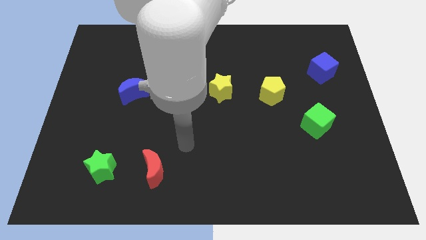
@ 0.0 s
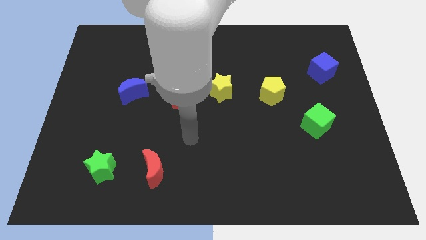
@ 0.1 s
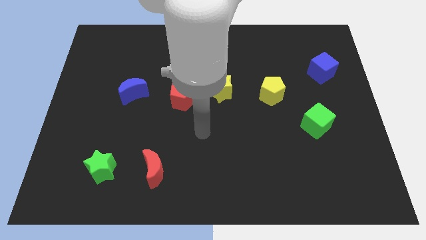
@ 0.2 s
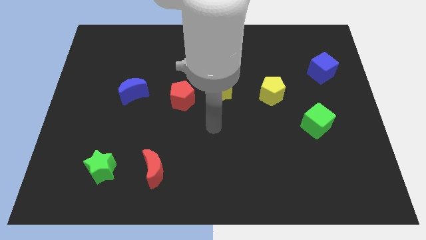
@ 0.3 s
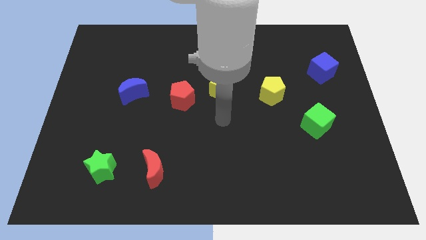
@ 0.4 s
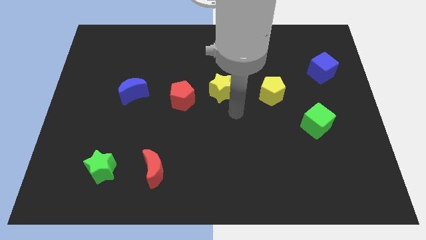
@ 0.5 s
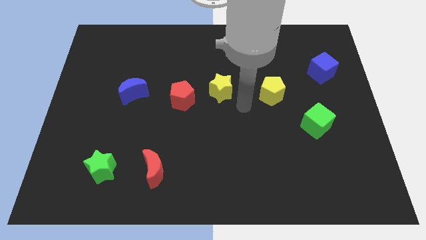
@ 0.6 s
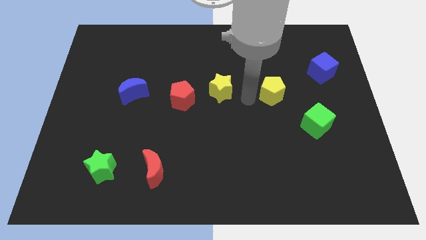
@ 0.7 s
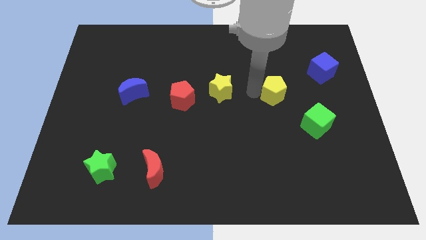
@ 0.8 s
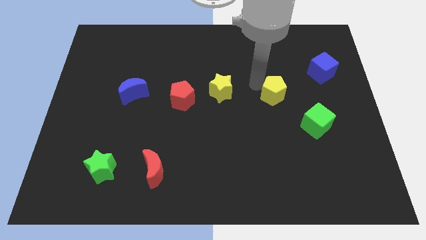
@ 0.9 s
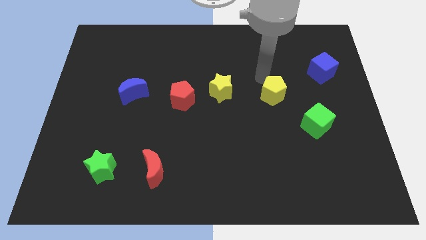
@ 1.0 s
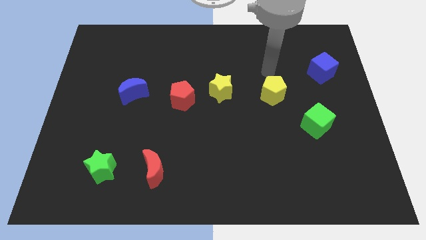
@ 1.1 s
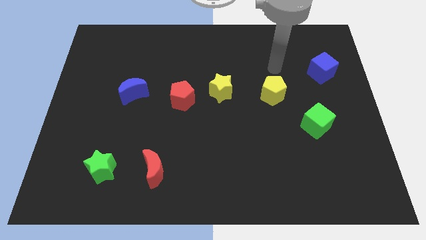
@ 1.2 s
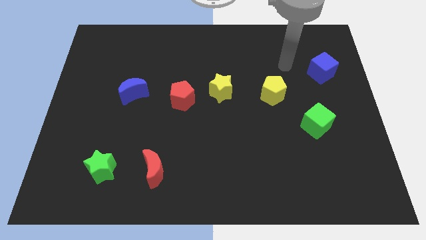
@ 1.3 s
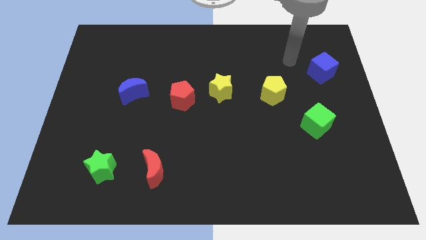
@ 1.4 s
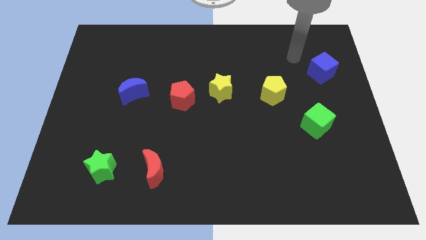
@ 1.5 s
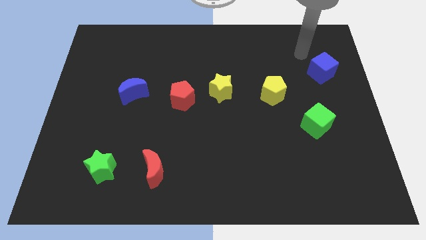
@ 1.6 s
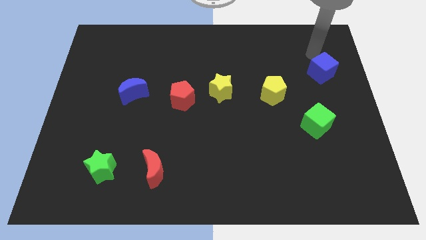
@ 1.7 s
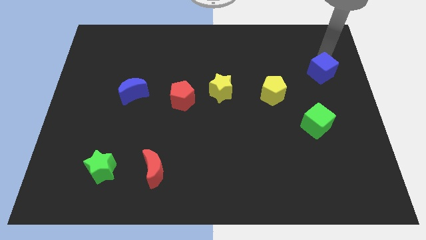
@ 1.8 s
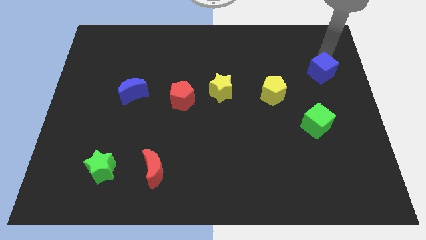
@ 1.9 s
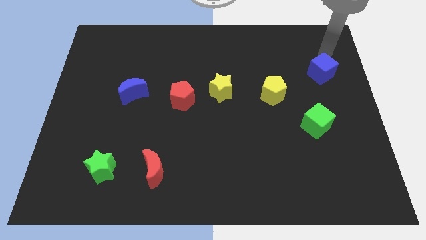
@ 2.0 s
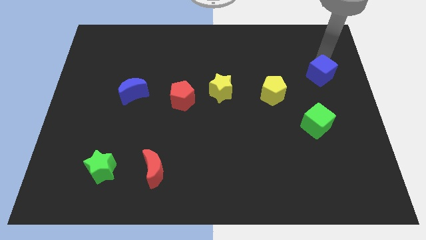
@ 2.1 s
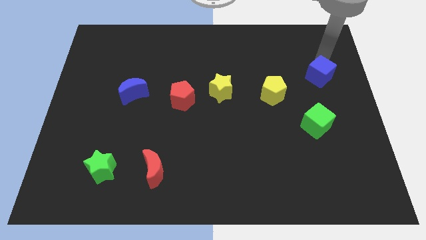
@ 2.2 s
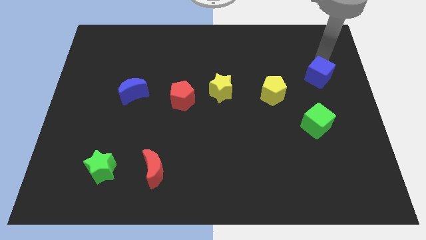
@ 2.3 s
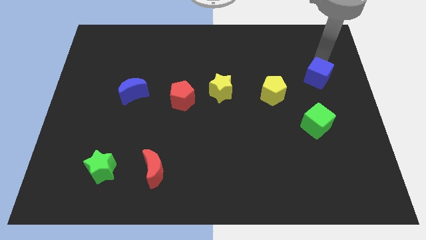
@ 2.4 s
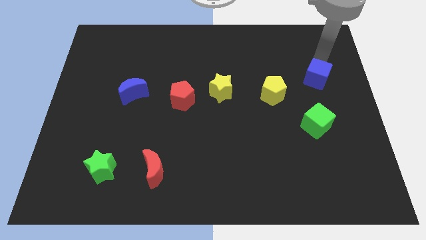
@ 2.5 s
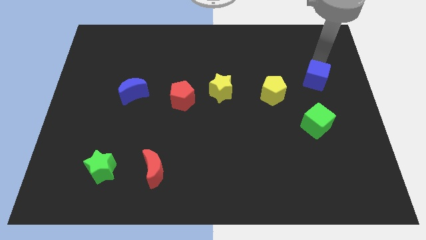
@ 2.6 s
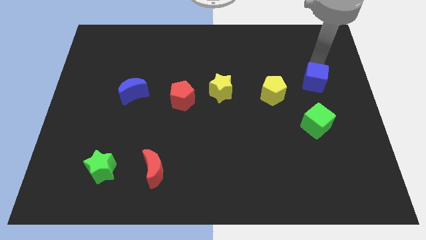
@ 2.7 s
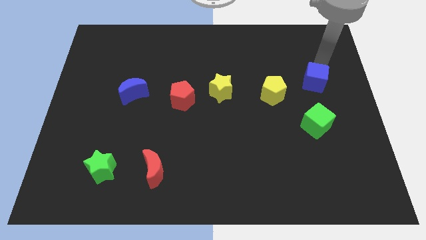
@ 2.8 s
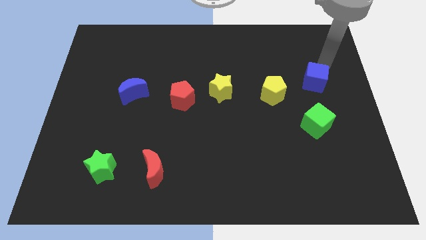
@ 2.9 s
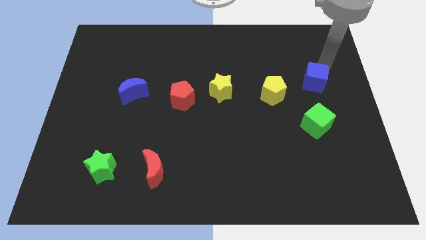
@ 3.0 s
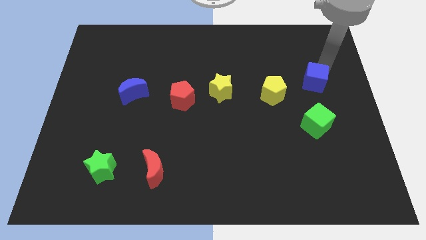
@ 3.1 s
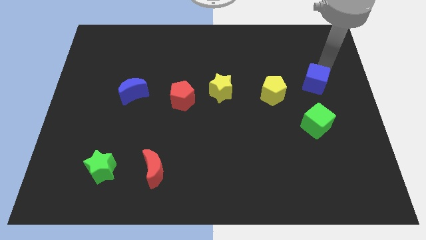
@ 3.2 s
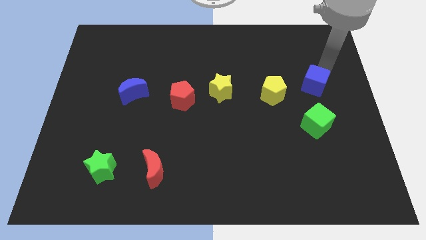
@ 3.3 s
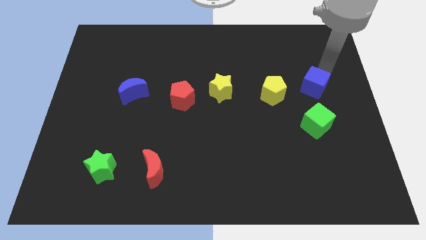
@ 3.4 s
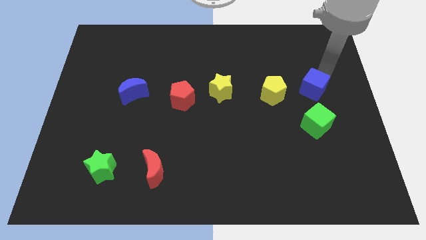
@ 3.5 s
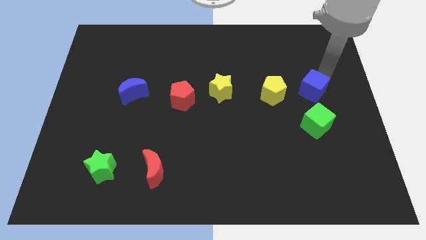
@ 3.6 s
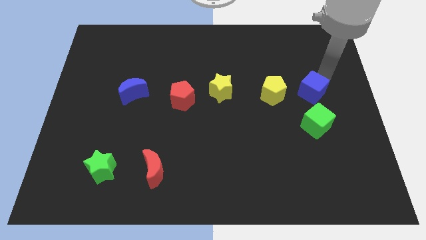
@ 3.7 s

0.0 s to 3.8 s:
push the blue cube downwards and then to the left a bit

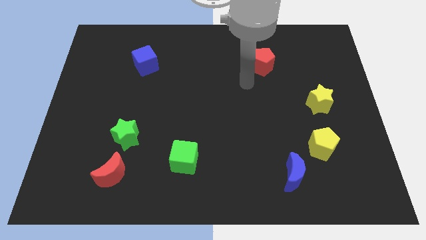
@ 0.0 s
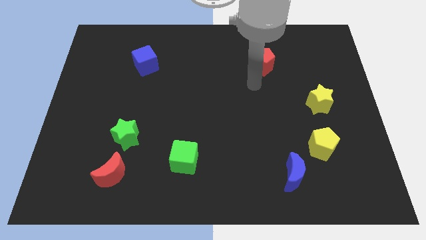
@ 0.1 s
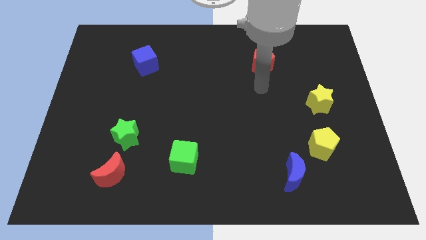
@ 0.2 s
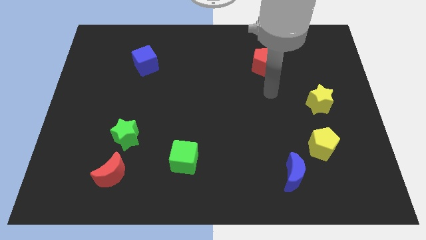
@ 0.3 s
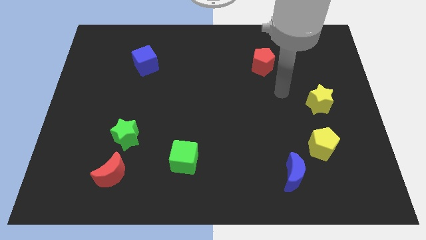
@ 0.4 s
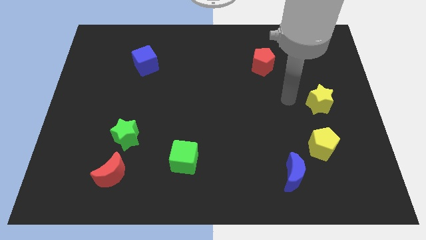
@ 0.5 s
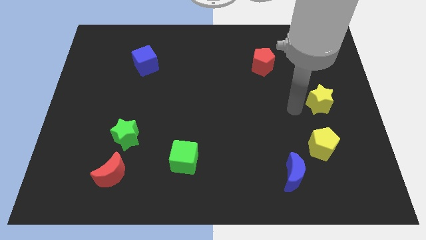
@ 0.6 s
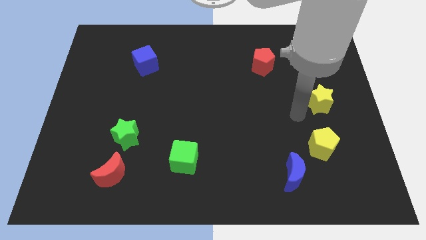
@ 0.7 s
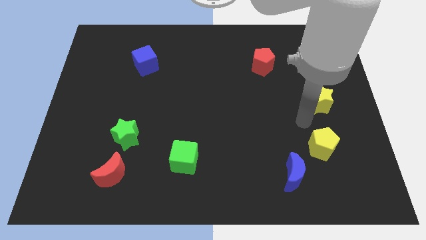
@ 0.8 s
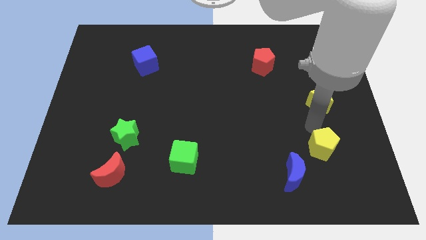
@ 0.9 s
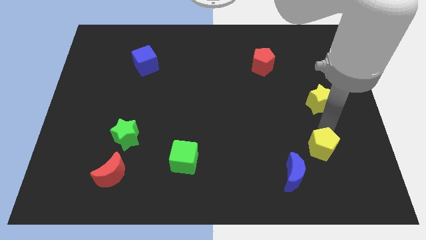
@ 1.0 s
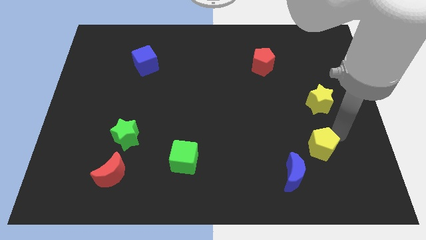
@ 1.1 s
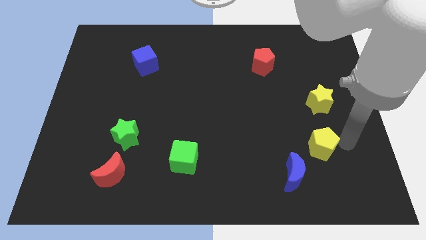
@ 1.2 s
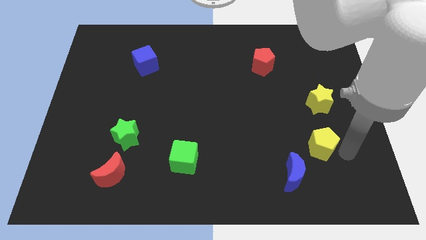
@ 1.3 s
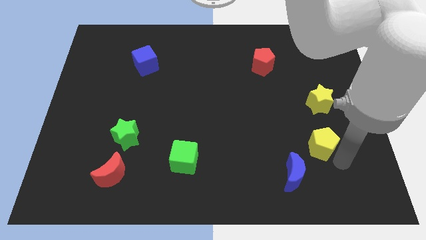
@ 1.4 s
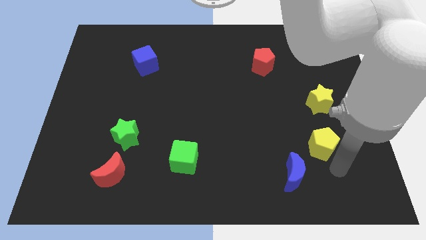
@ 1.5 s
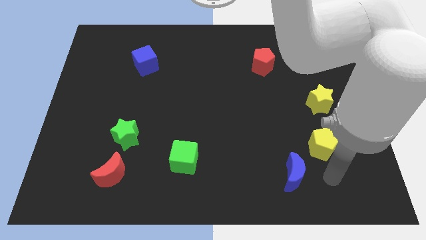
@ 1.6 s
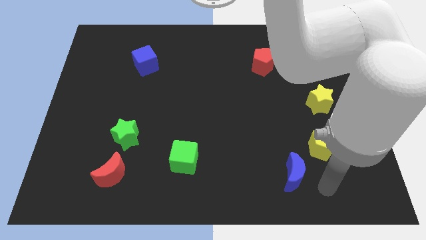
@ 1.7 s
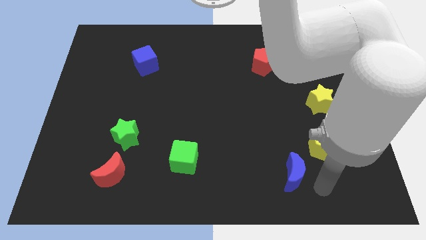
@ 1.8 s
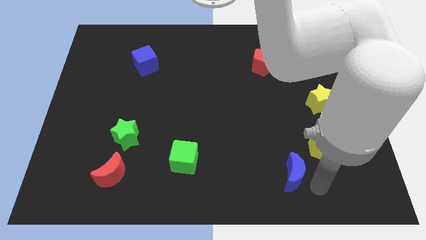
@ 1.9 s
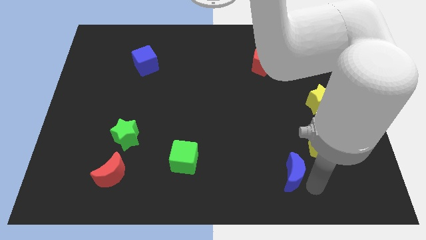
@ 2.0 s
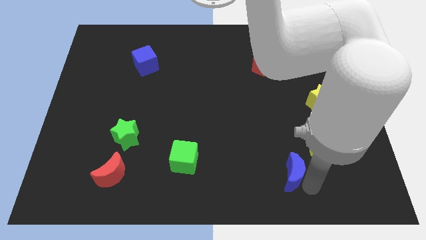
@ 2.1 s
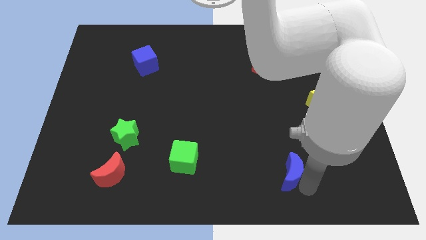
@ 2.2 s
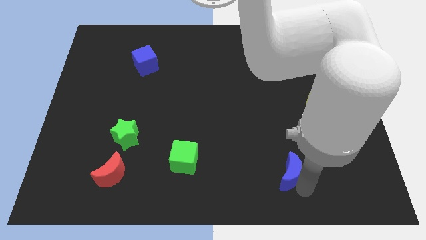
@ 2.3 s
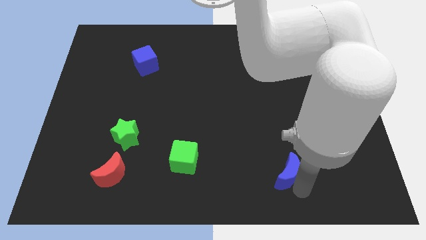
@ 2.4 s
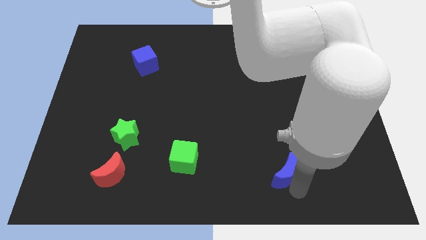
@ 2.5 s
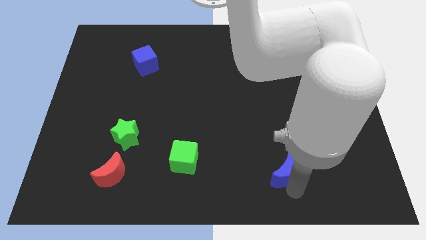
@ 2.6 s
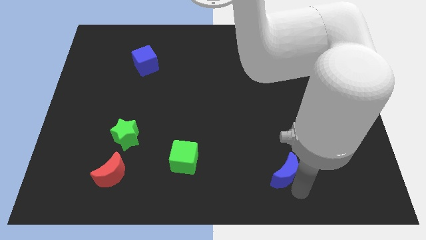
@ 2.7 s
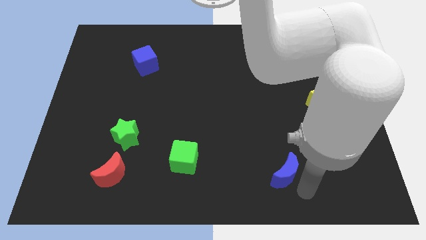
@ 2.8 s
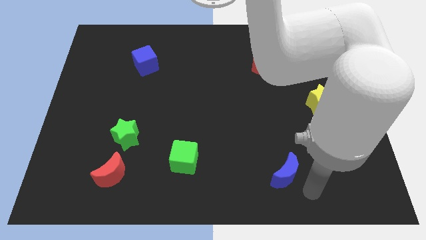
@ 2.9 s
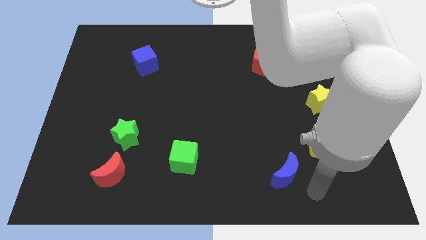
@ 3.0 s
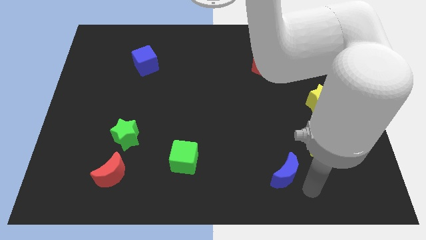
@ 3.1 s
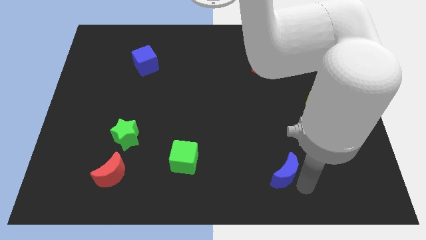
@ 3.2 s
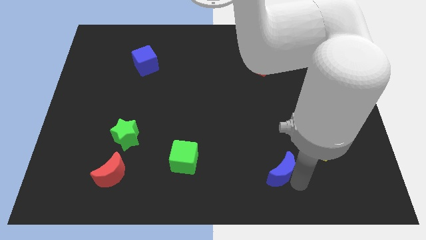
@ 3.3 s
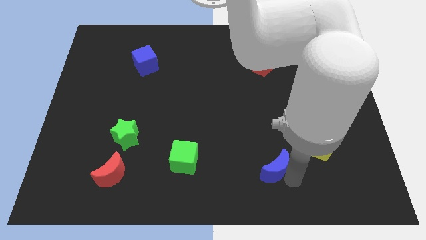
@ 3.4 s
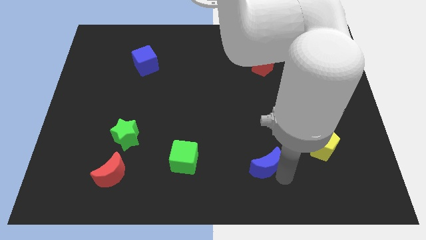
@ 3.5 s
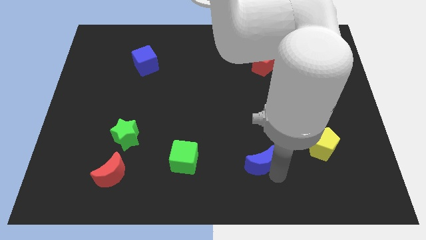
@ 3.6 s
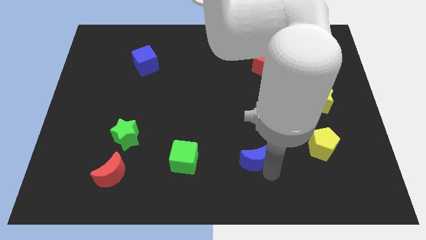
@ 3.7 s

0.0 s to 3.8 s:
slightly move the blue moon upwards and to the left diagonally

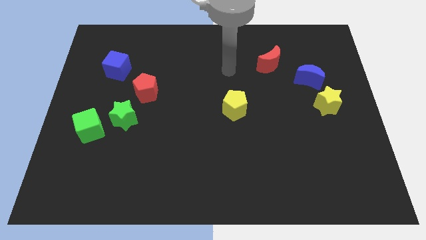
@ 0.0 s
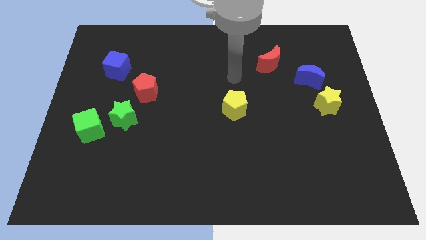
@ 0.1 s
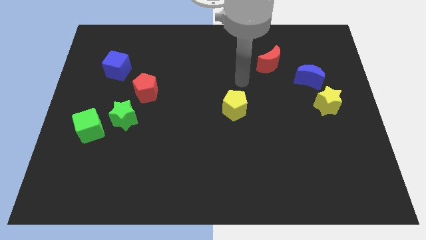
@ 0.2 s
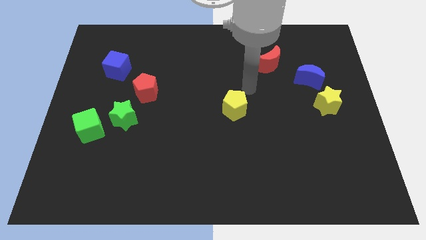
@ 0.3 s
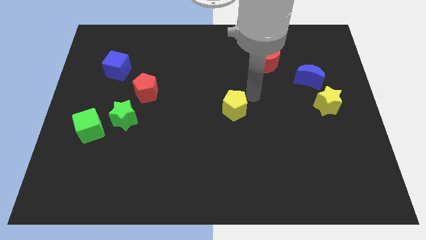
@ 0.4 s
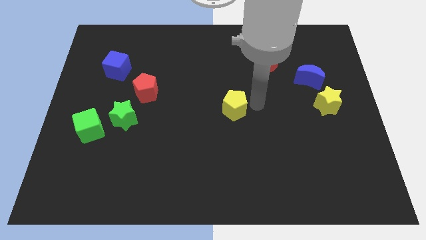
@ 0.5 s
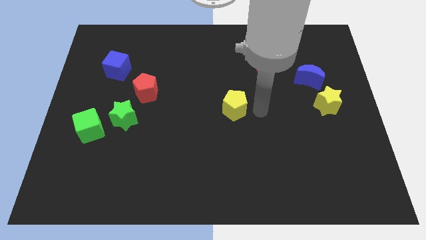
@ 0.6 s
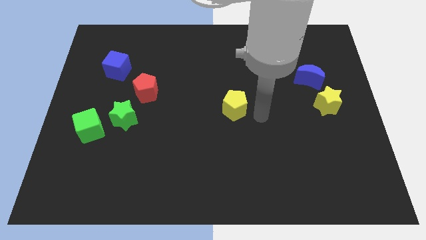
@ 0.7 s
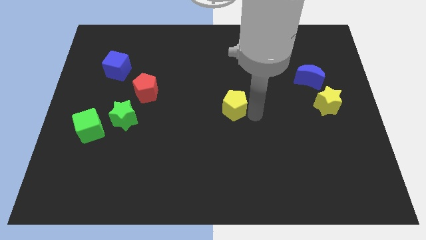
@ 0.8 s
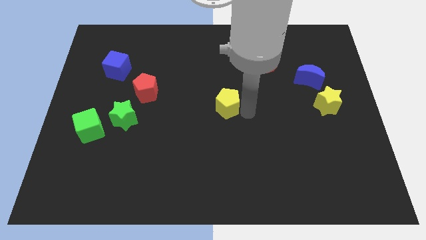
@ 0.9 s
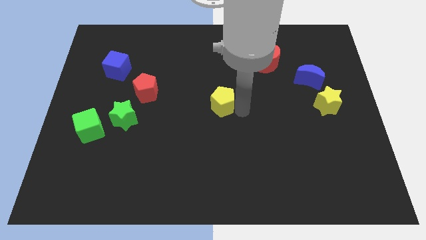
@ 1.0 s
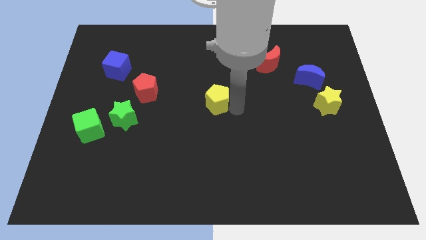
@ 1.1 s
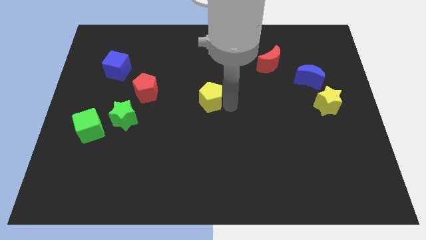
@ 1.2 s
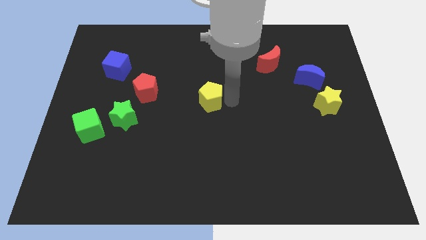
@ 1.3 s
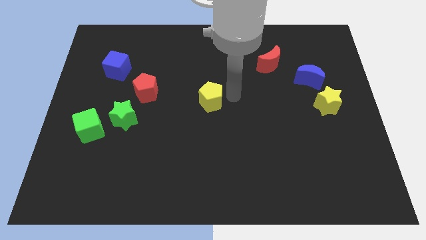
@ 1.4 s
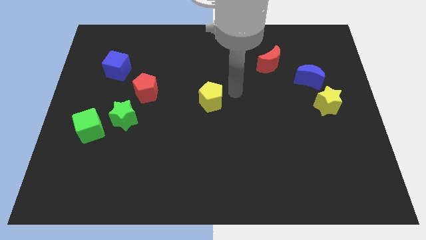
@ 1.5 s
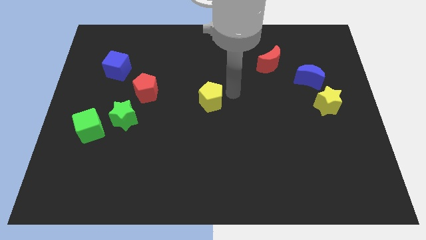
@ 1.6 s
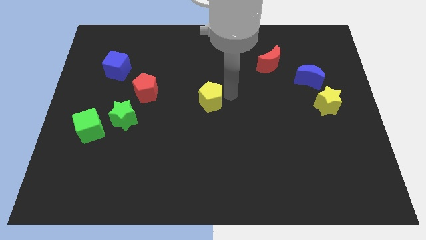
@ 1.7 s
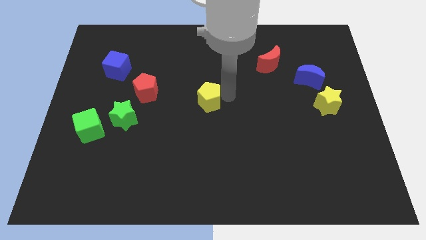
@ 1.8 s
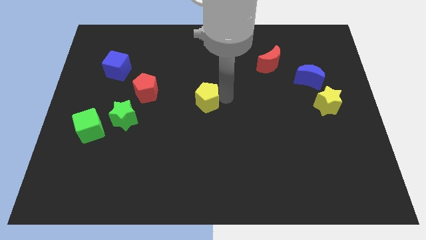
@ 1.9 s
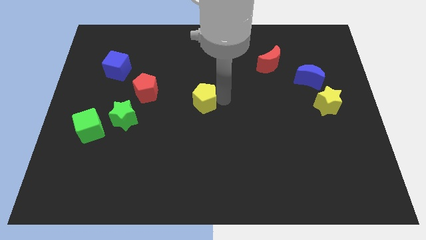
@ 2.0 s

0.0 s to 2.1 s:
push the yellow pentagon left slightly
